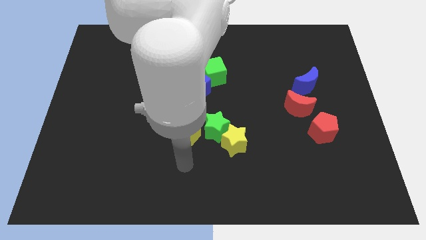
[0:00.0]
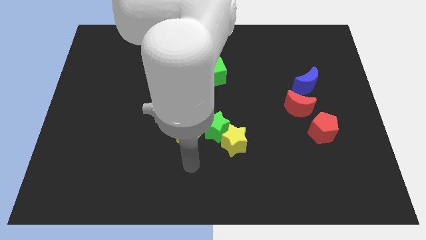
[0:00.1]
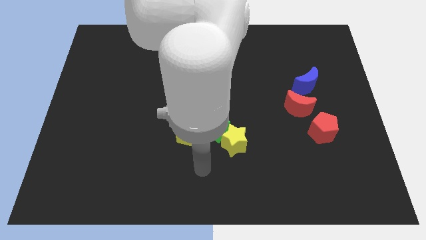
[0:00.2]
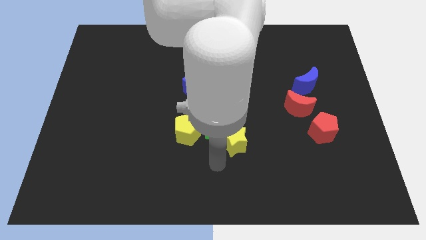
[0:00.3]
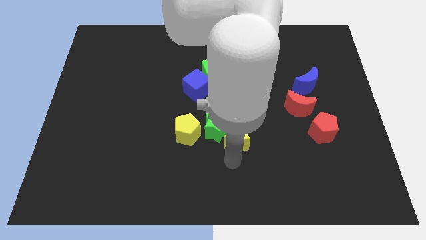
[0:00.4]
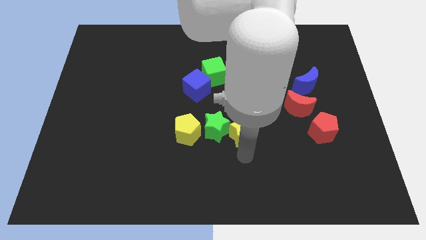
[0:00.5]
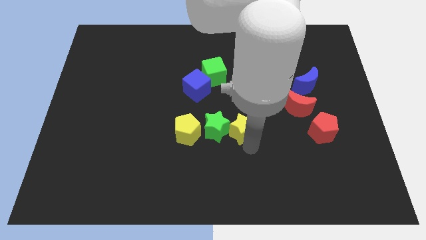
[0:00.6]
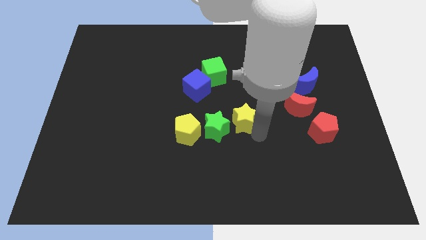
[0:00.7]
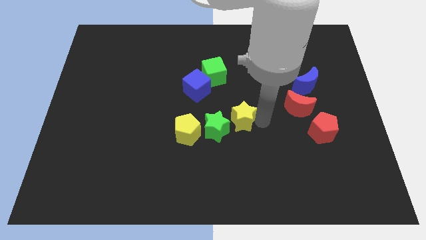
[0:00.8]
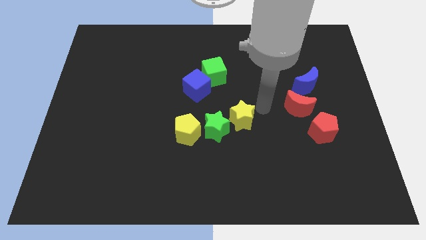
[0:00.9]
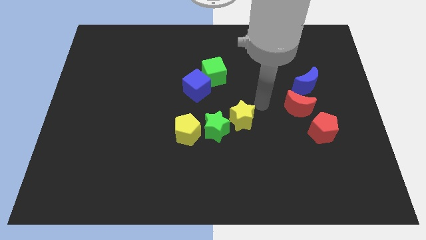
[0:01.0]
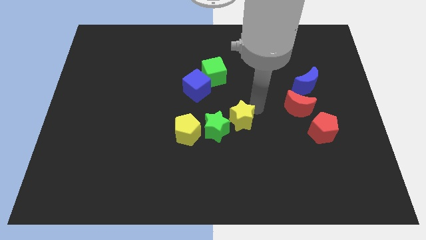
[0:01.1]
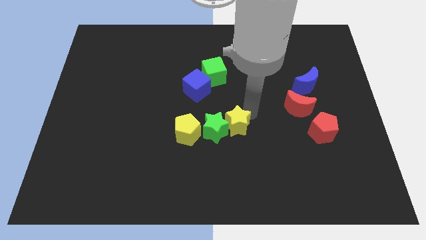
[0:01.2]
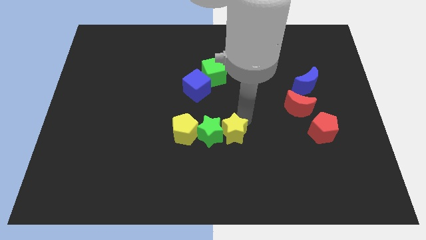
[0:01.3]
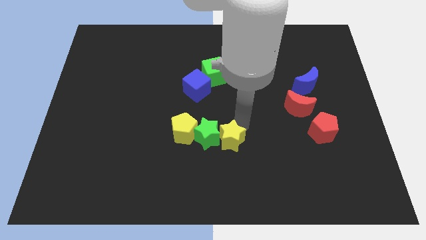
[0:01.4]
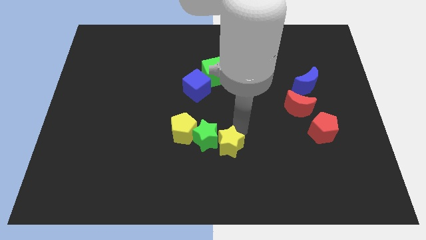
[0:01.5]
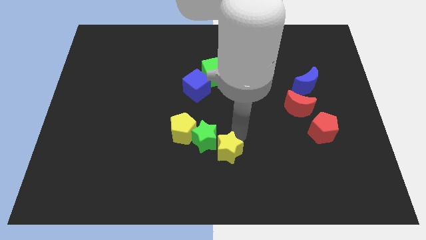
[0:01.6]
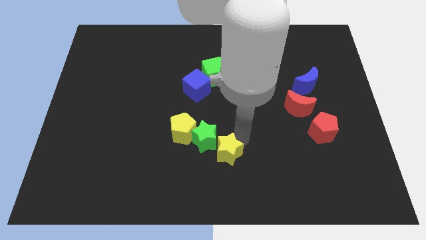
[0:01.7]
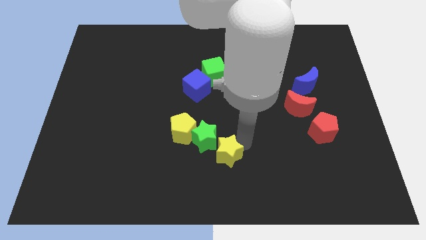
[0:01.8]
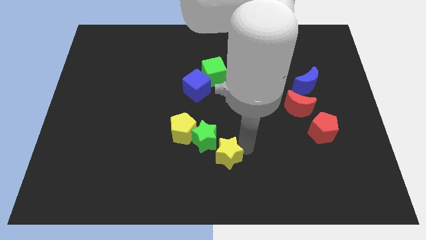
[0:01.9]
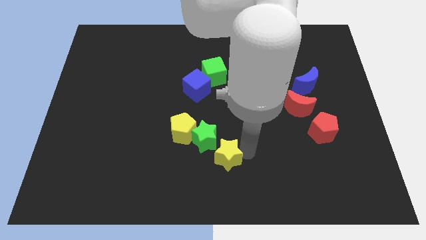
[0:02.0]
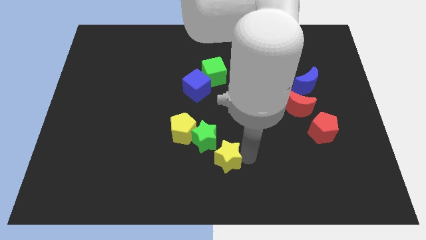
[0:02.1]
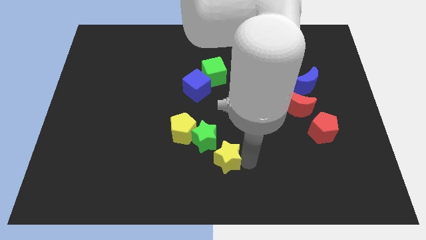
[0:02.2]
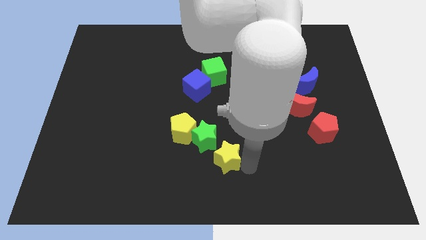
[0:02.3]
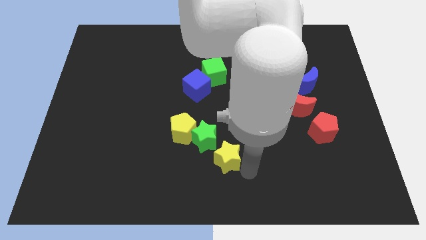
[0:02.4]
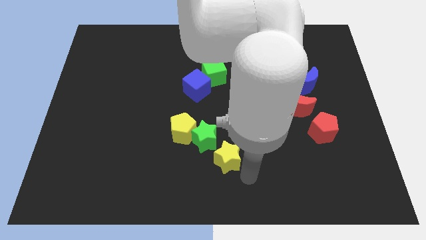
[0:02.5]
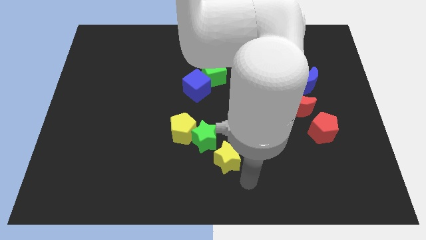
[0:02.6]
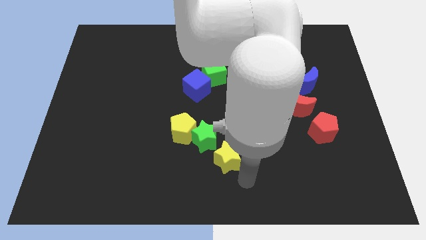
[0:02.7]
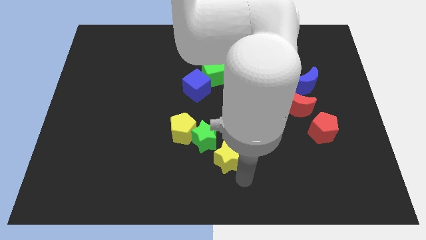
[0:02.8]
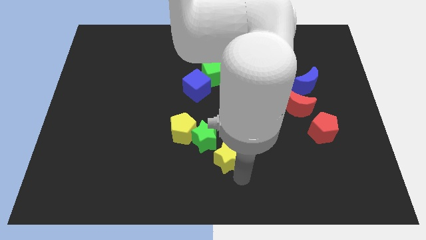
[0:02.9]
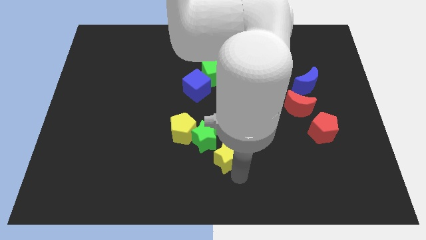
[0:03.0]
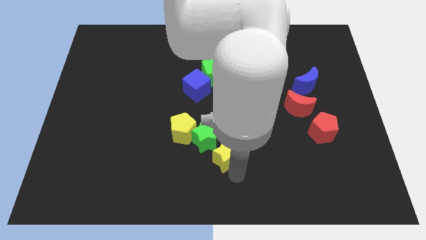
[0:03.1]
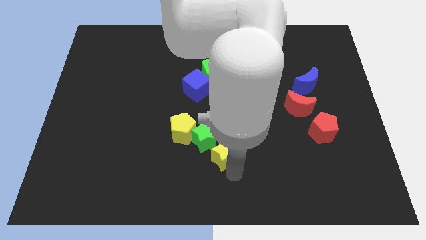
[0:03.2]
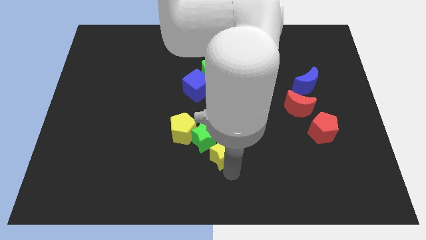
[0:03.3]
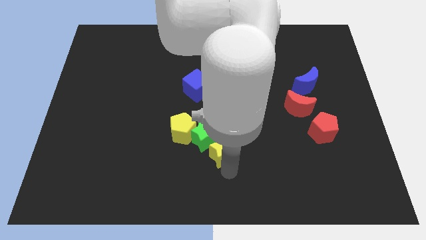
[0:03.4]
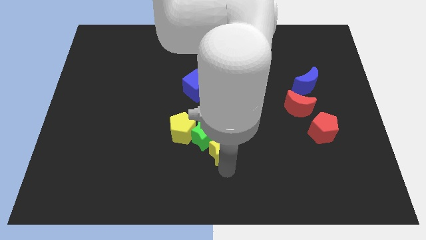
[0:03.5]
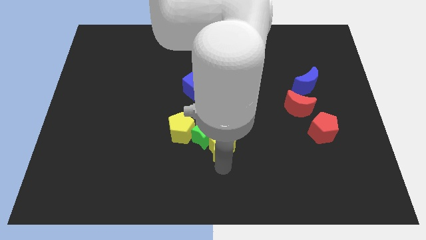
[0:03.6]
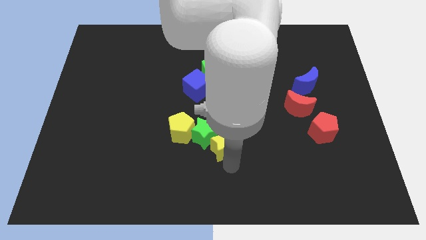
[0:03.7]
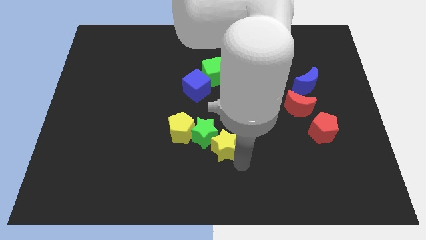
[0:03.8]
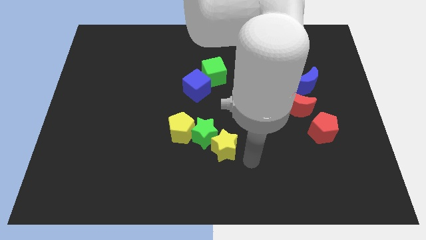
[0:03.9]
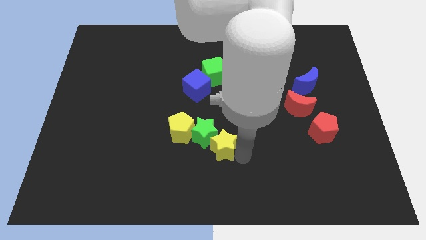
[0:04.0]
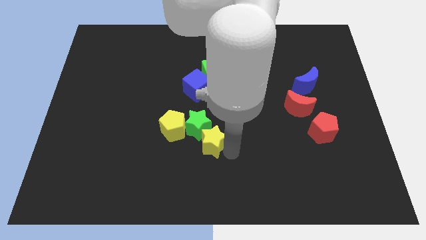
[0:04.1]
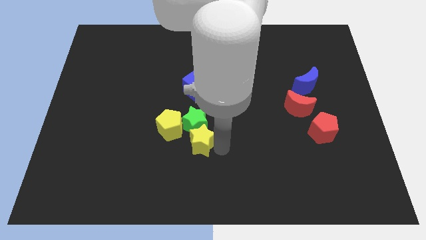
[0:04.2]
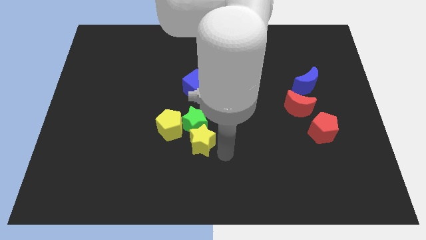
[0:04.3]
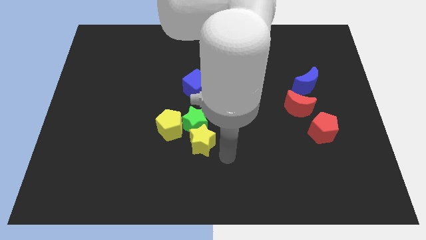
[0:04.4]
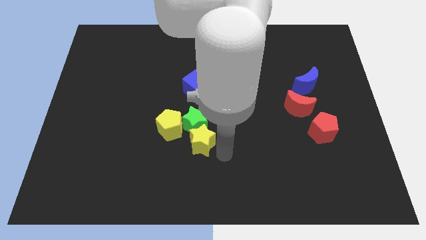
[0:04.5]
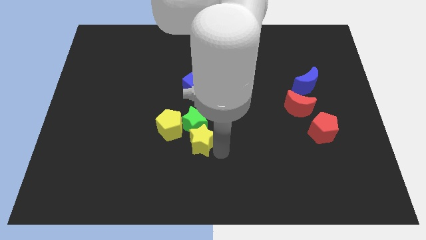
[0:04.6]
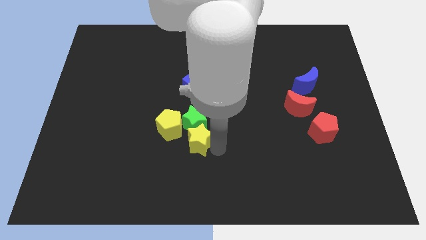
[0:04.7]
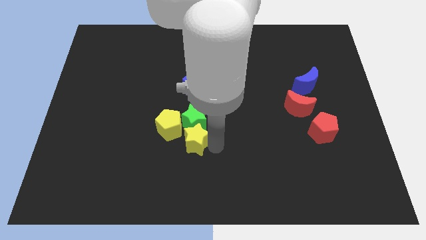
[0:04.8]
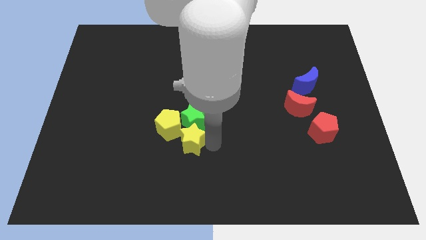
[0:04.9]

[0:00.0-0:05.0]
put the yellow star to the yellow pentagon

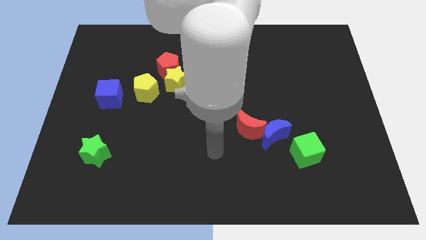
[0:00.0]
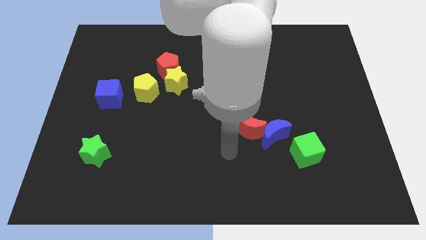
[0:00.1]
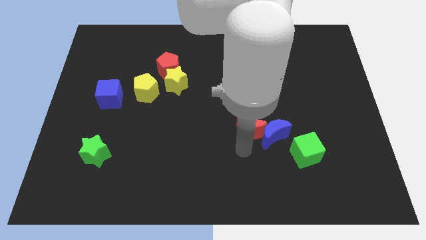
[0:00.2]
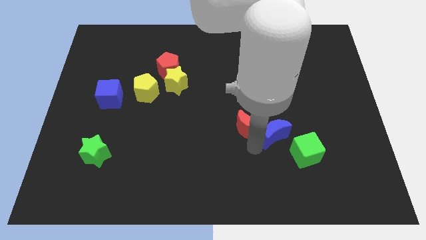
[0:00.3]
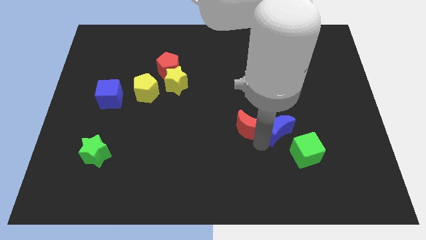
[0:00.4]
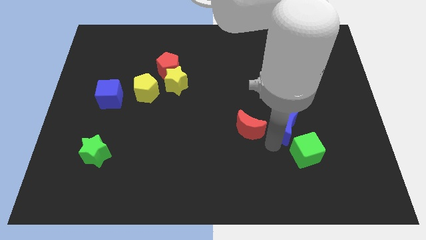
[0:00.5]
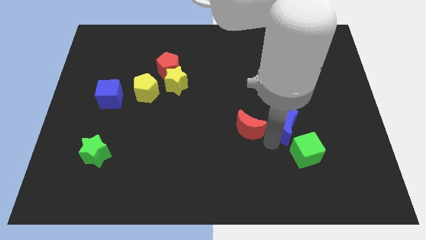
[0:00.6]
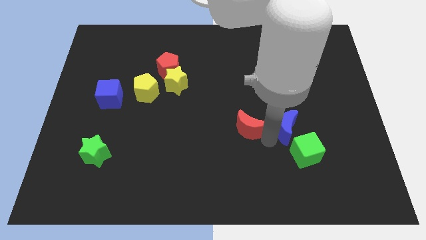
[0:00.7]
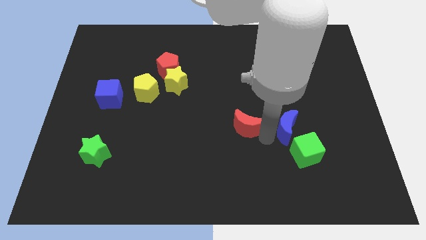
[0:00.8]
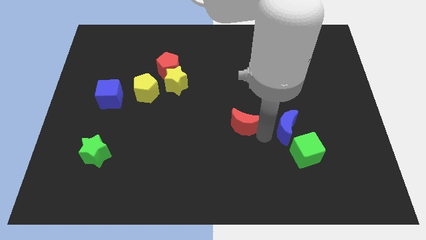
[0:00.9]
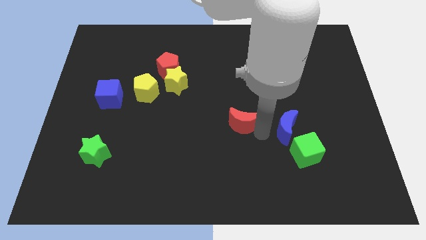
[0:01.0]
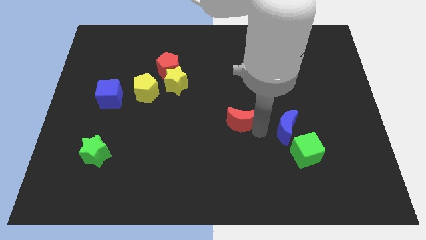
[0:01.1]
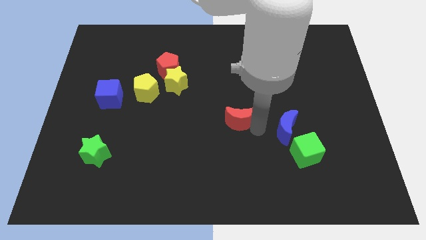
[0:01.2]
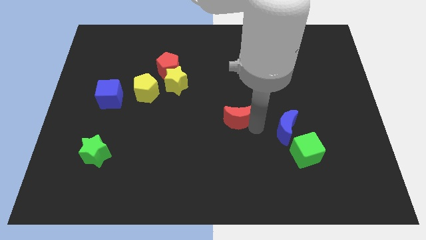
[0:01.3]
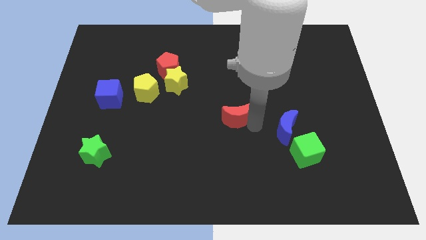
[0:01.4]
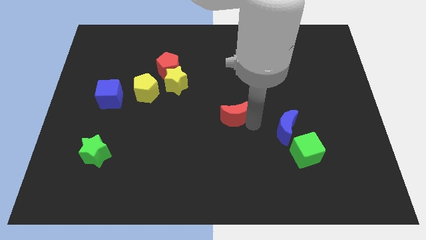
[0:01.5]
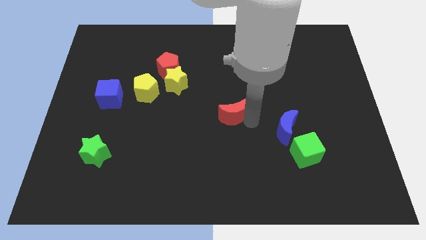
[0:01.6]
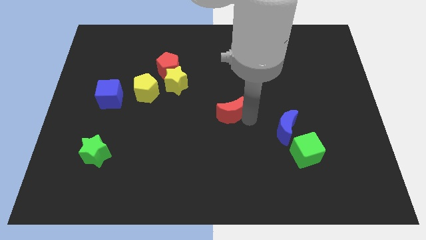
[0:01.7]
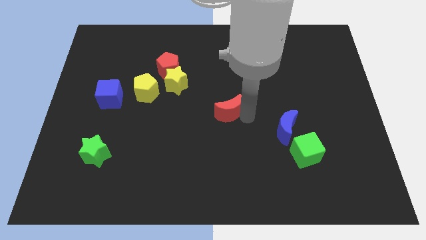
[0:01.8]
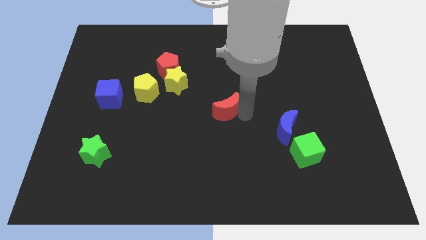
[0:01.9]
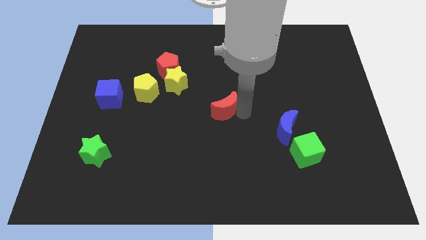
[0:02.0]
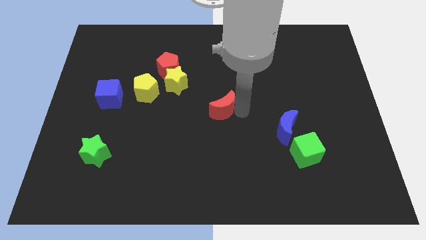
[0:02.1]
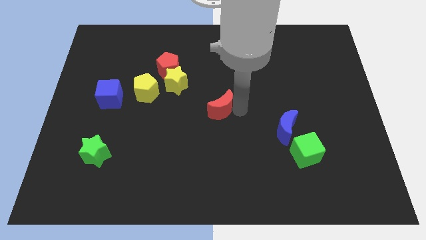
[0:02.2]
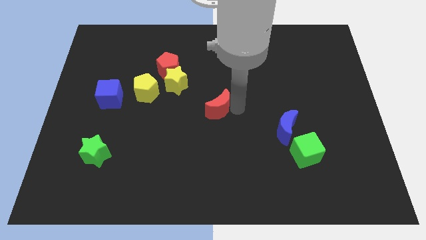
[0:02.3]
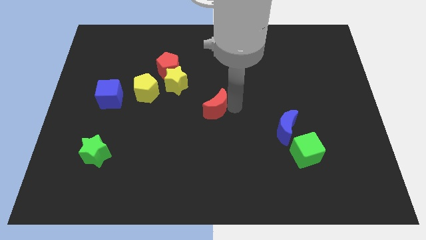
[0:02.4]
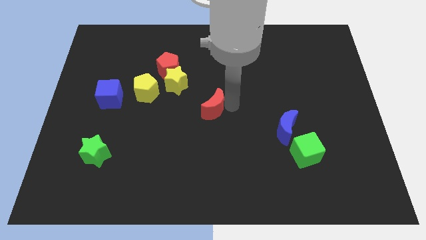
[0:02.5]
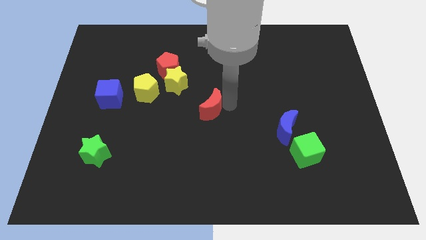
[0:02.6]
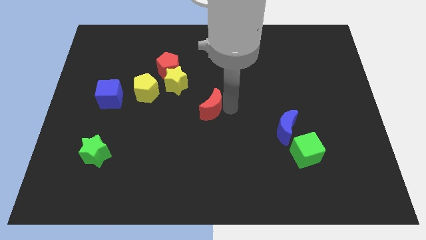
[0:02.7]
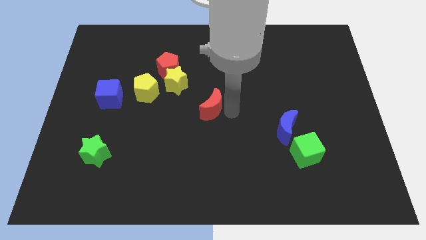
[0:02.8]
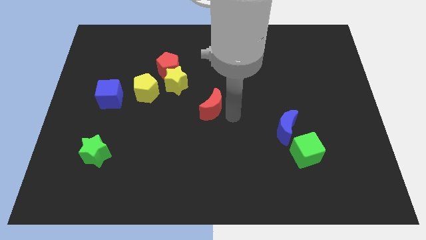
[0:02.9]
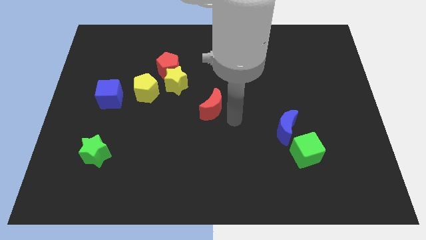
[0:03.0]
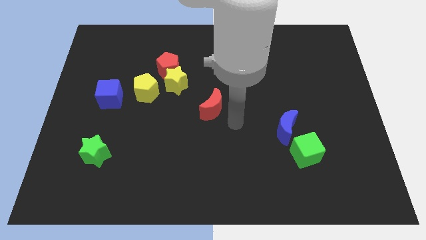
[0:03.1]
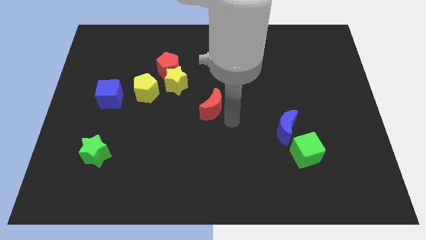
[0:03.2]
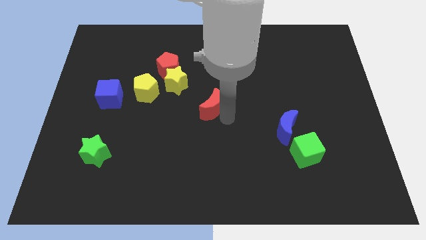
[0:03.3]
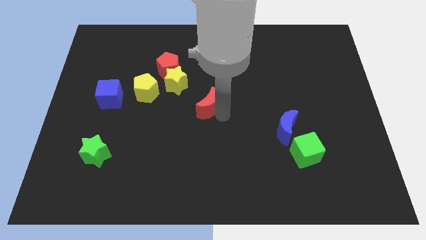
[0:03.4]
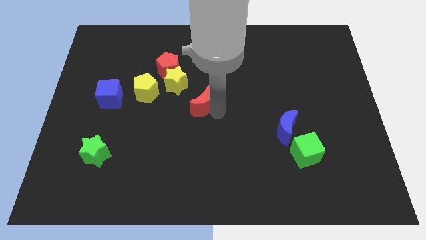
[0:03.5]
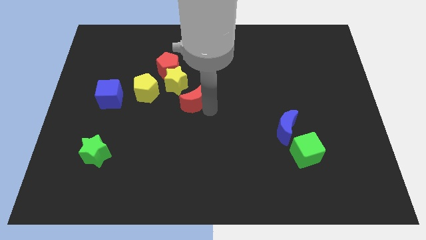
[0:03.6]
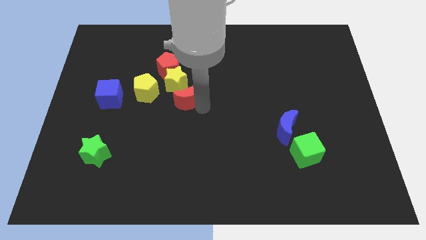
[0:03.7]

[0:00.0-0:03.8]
move the red moon close to the yellow star
